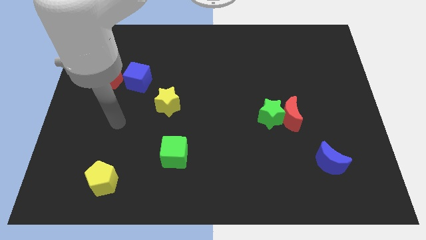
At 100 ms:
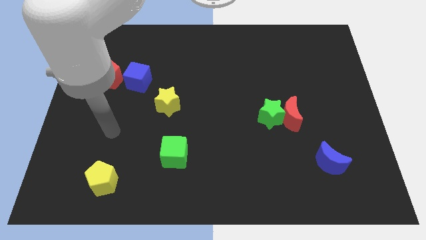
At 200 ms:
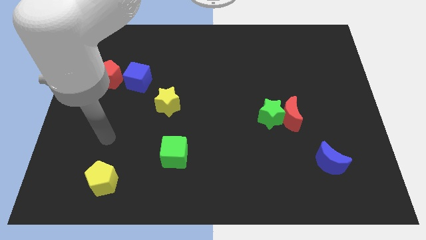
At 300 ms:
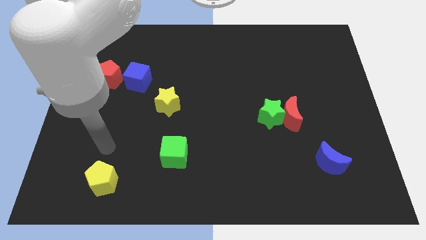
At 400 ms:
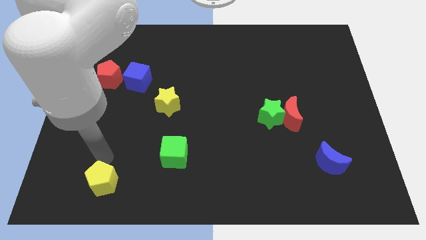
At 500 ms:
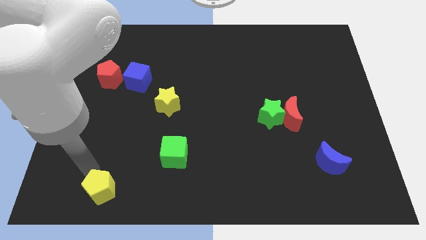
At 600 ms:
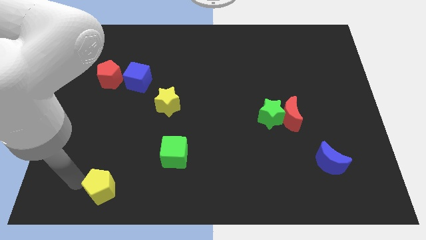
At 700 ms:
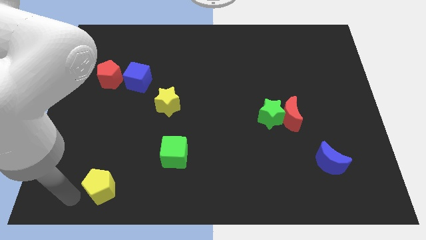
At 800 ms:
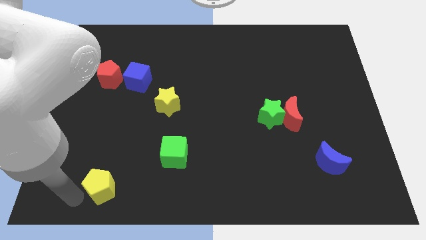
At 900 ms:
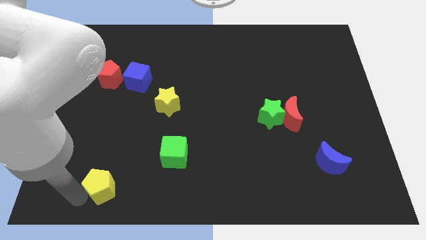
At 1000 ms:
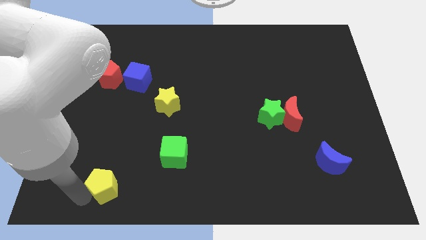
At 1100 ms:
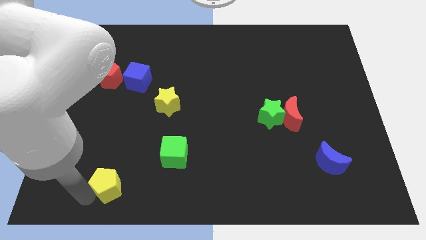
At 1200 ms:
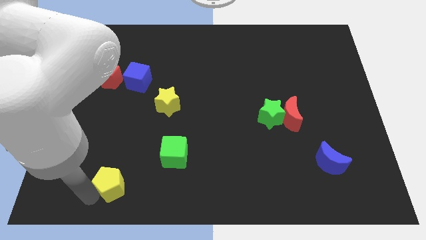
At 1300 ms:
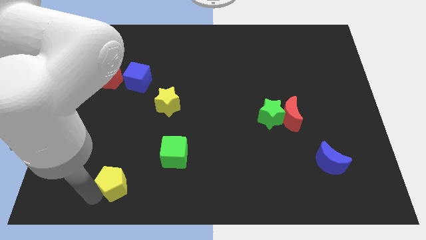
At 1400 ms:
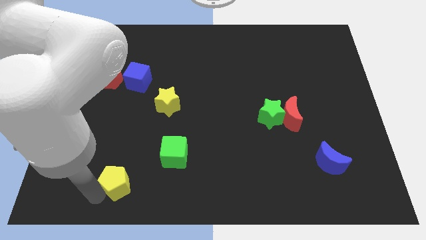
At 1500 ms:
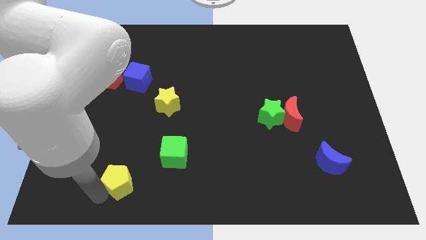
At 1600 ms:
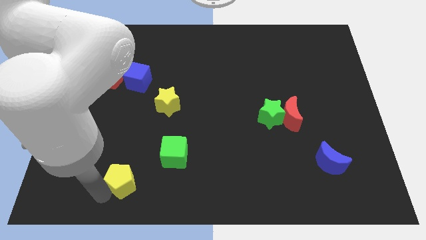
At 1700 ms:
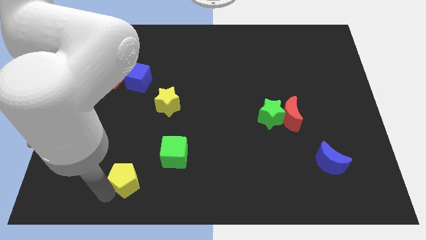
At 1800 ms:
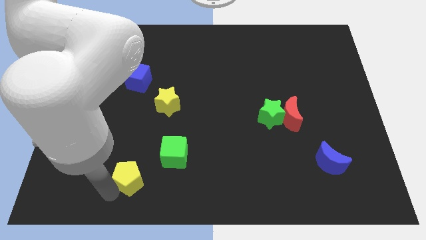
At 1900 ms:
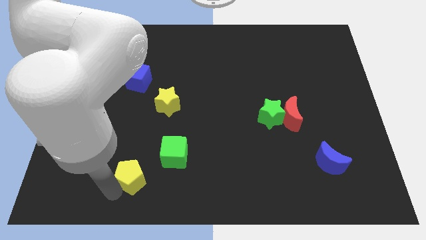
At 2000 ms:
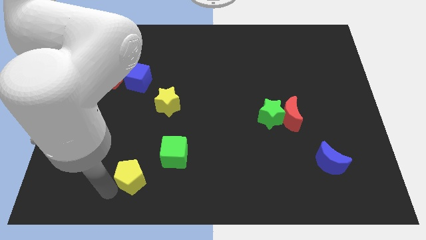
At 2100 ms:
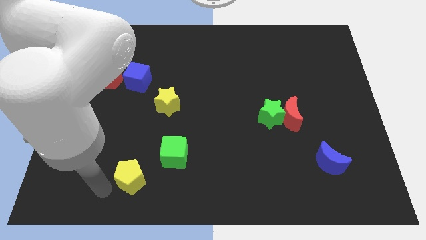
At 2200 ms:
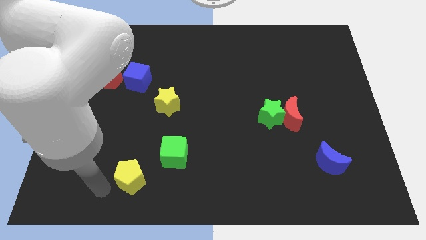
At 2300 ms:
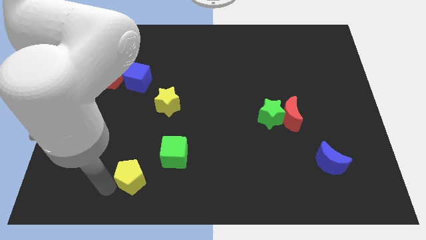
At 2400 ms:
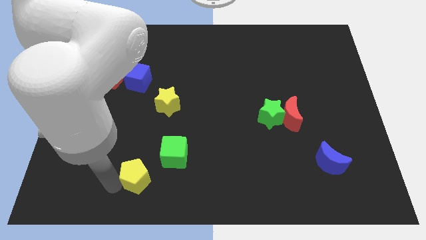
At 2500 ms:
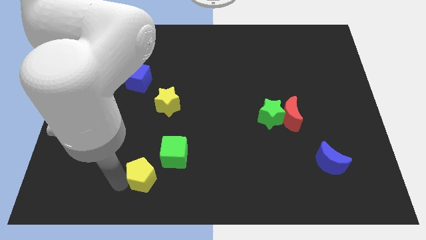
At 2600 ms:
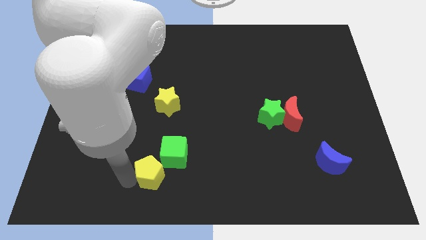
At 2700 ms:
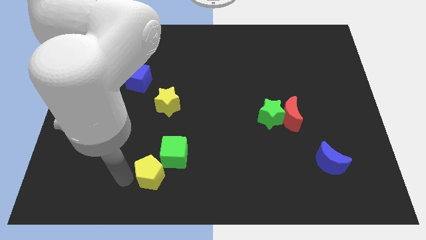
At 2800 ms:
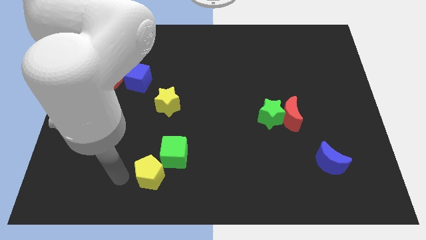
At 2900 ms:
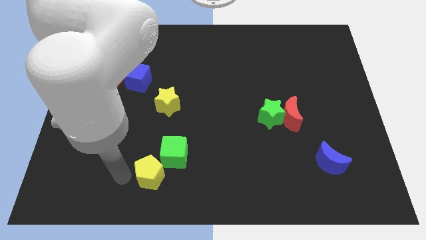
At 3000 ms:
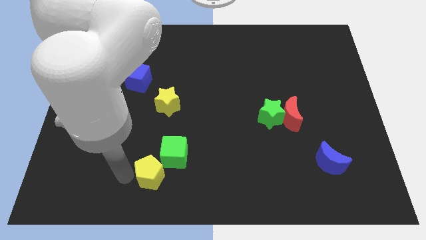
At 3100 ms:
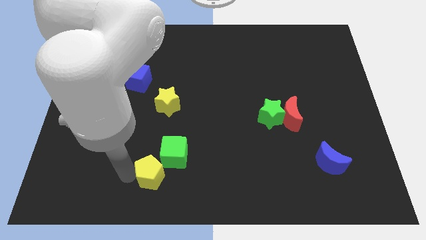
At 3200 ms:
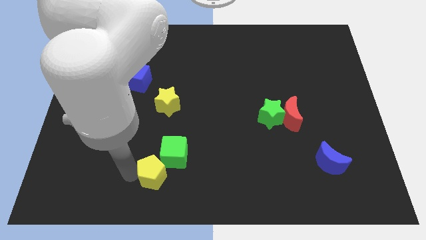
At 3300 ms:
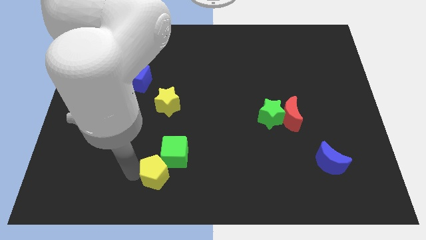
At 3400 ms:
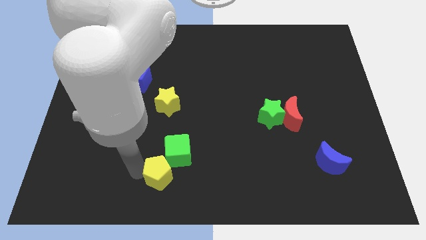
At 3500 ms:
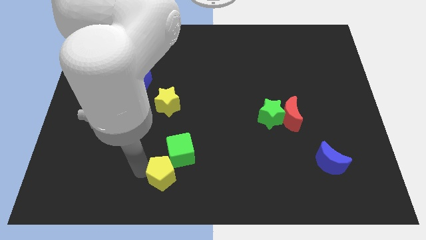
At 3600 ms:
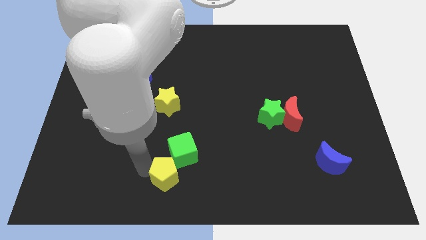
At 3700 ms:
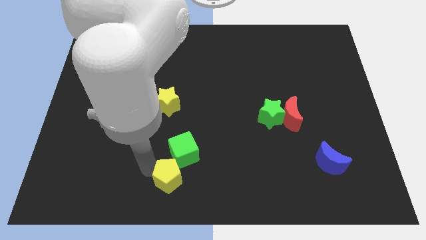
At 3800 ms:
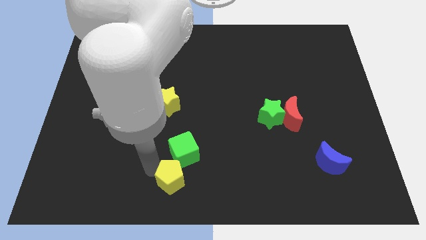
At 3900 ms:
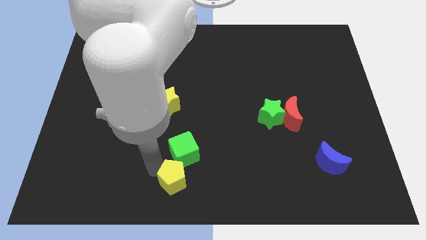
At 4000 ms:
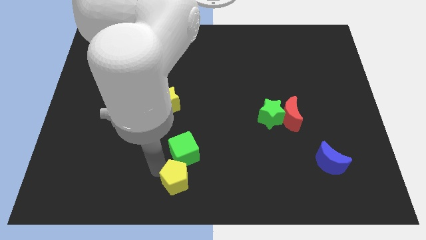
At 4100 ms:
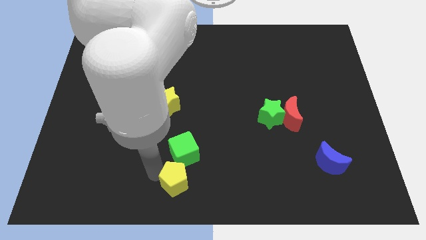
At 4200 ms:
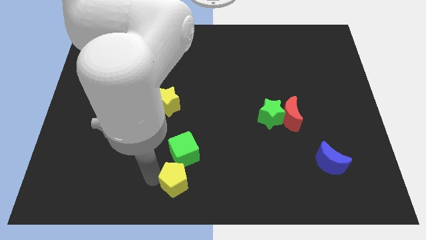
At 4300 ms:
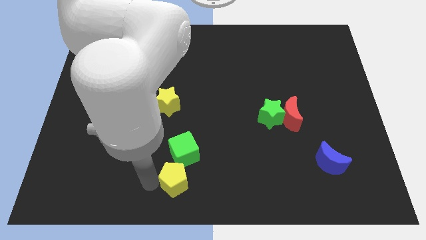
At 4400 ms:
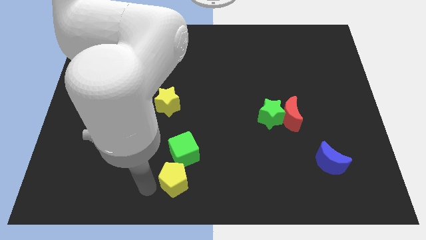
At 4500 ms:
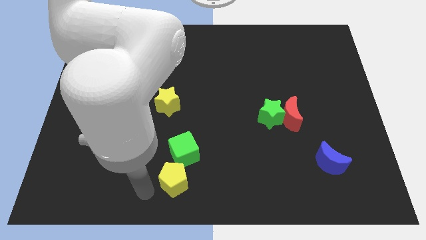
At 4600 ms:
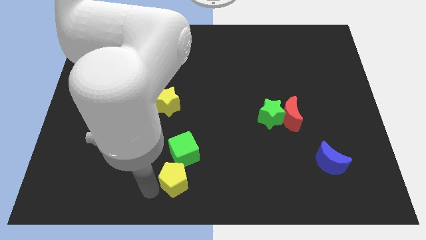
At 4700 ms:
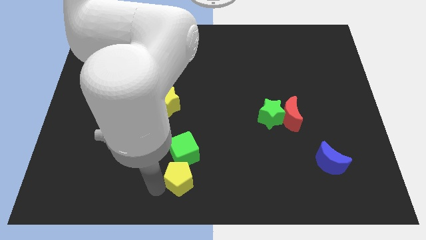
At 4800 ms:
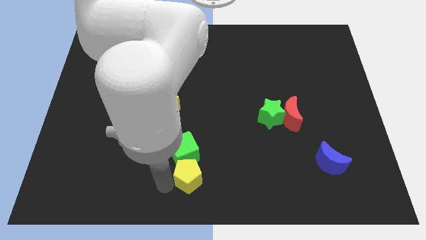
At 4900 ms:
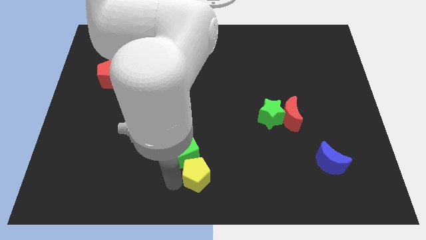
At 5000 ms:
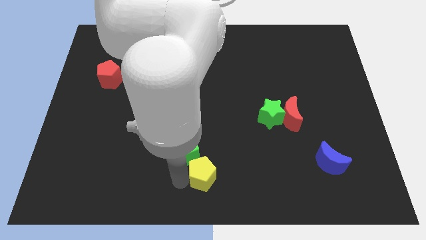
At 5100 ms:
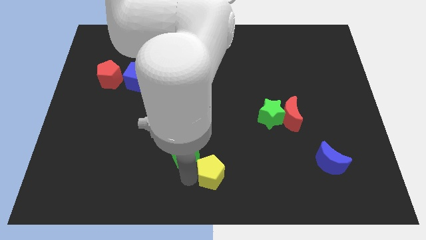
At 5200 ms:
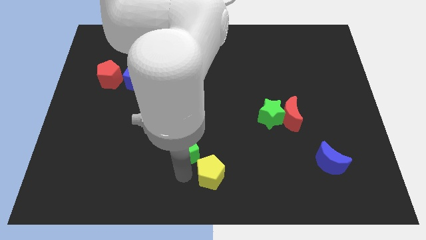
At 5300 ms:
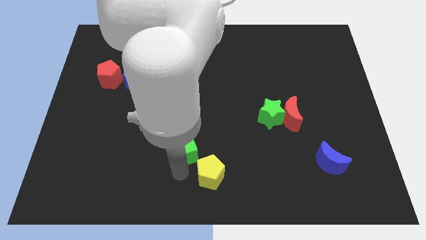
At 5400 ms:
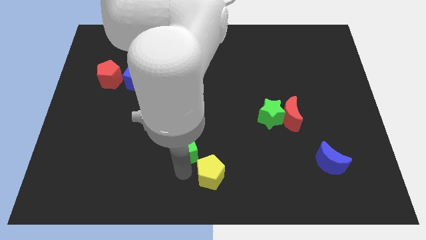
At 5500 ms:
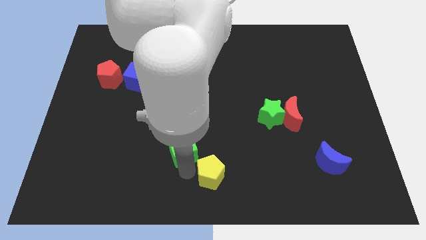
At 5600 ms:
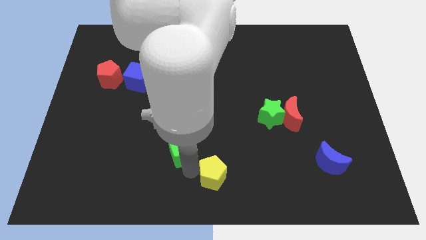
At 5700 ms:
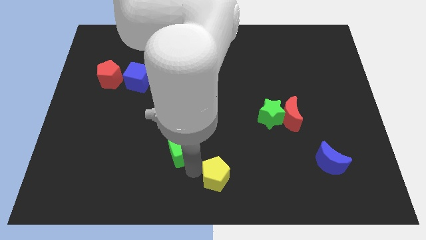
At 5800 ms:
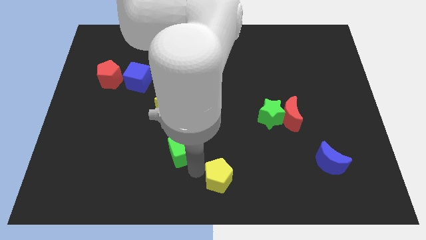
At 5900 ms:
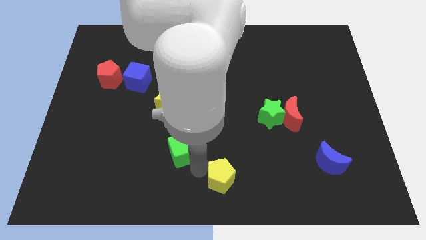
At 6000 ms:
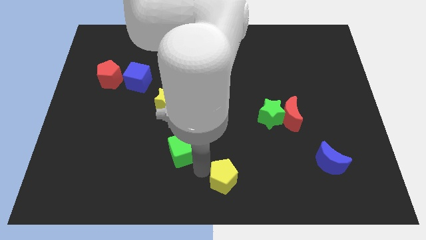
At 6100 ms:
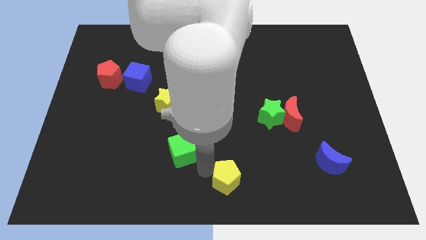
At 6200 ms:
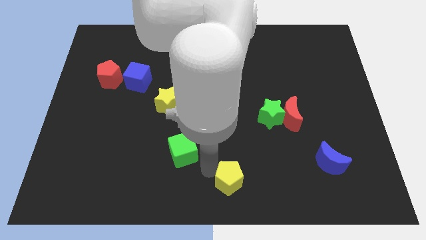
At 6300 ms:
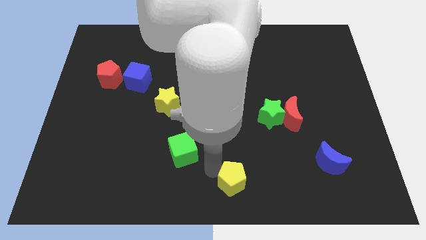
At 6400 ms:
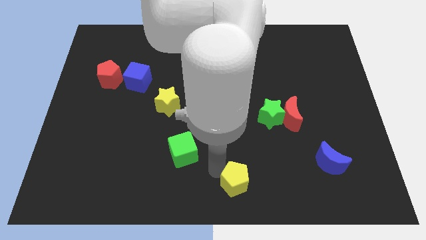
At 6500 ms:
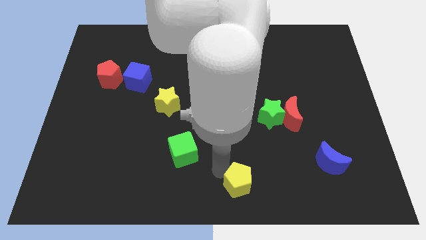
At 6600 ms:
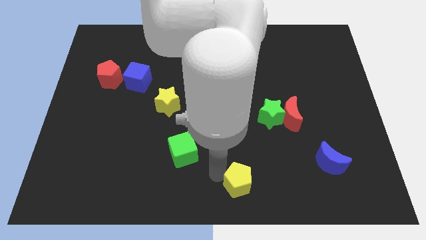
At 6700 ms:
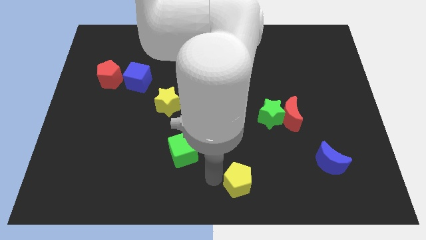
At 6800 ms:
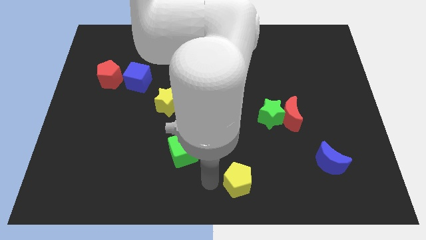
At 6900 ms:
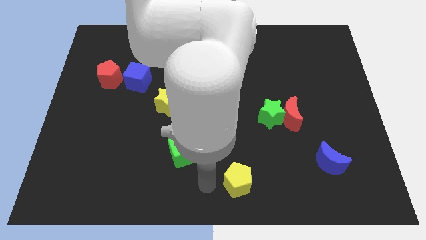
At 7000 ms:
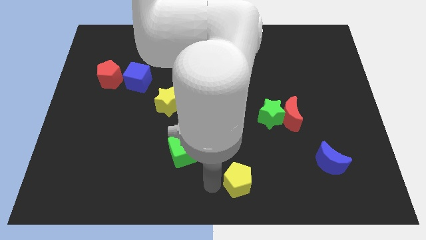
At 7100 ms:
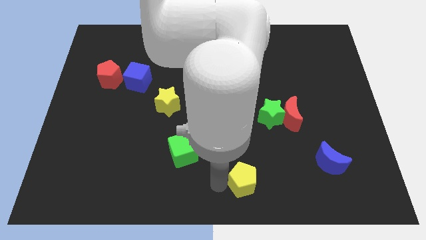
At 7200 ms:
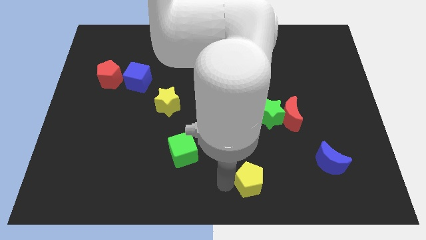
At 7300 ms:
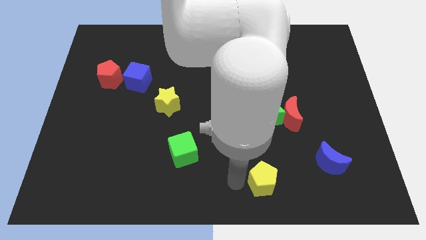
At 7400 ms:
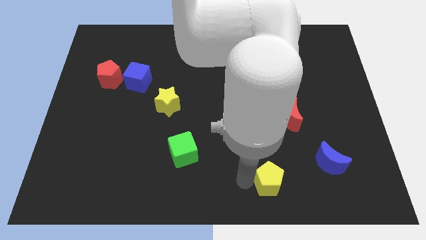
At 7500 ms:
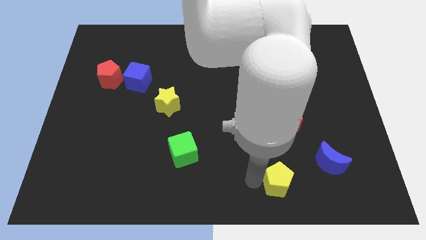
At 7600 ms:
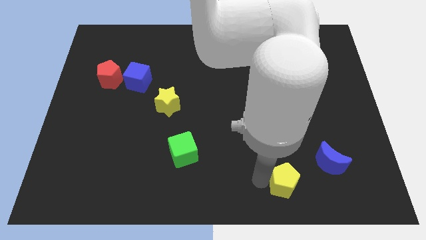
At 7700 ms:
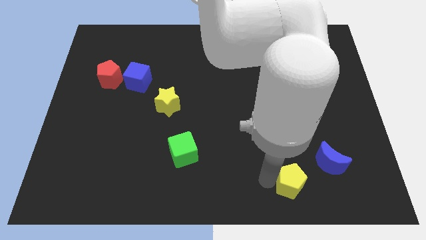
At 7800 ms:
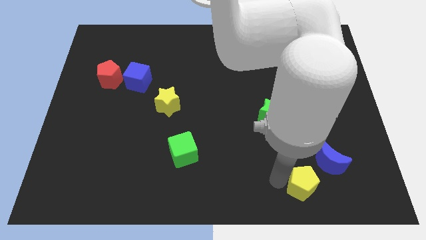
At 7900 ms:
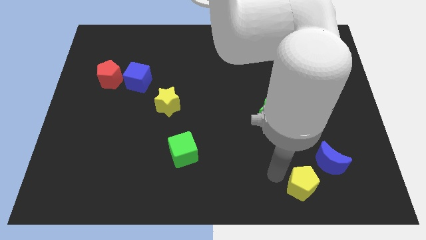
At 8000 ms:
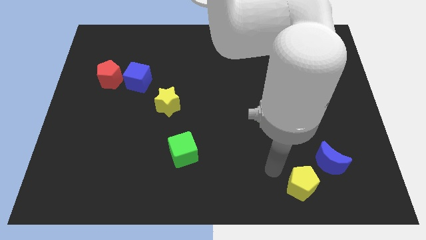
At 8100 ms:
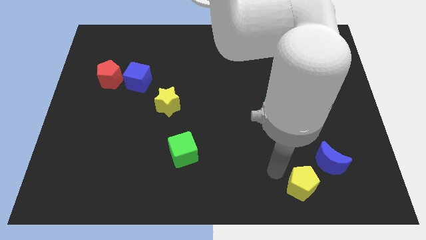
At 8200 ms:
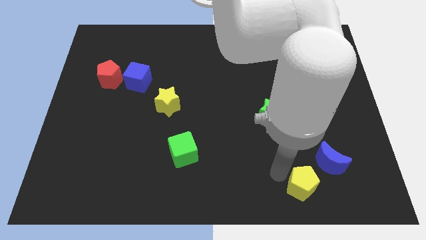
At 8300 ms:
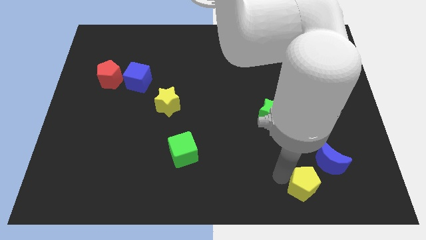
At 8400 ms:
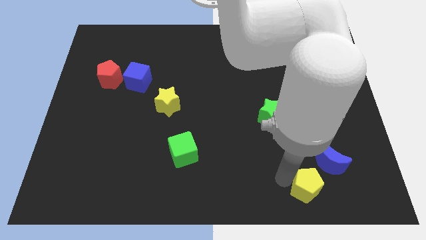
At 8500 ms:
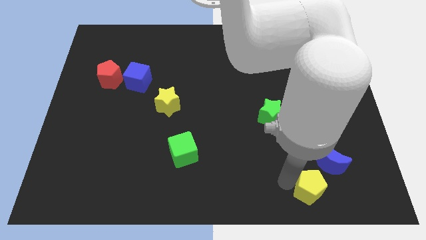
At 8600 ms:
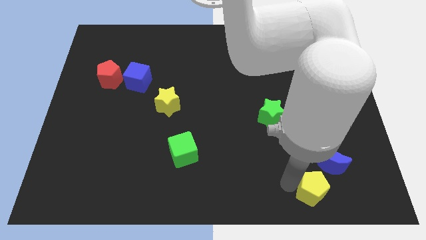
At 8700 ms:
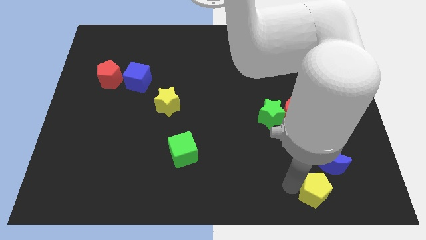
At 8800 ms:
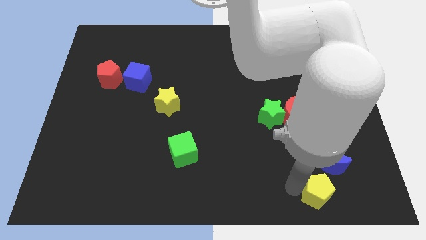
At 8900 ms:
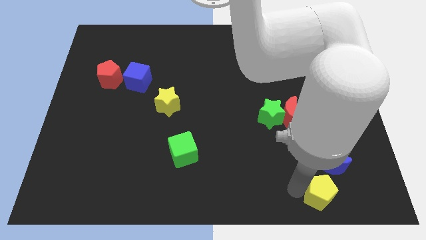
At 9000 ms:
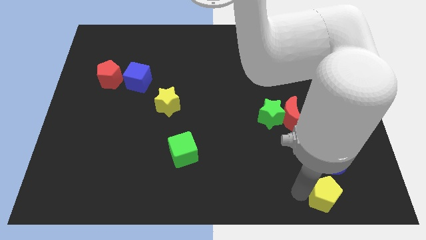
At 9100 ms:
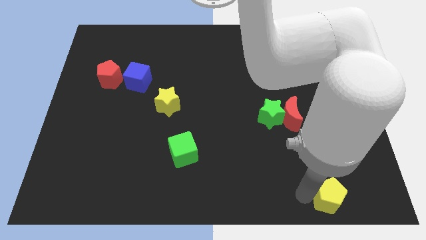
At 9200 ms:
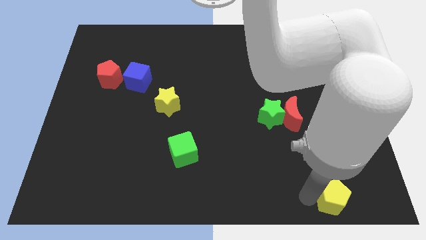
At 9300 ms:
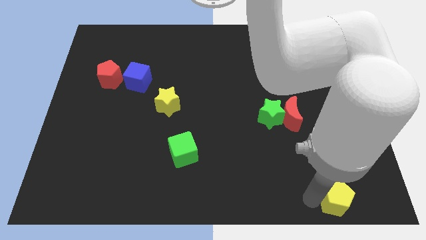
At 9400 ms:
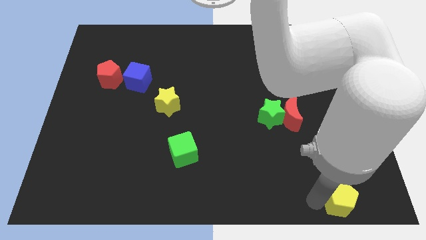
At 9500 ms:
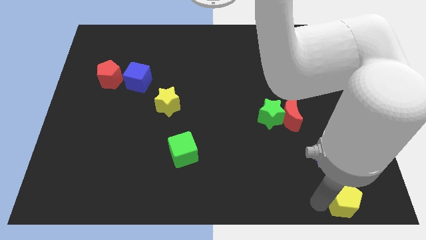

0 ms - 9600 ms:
move the yellow pentagon to the bottom right corner
